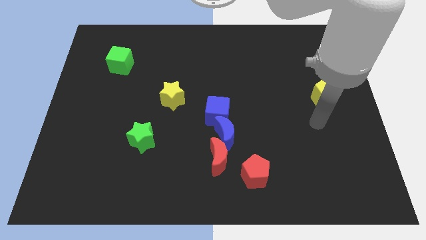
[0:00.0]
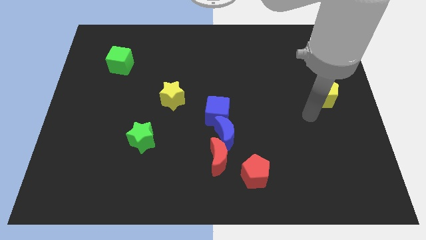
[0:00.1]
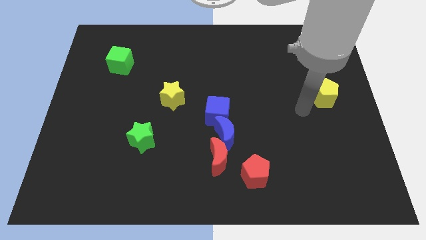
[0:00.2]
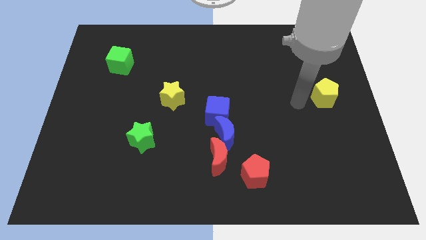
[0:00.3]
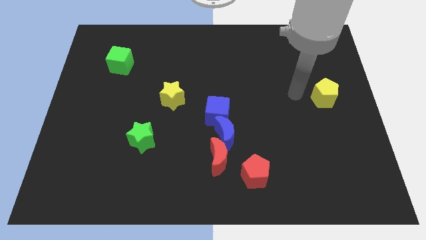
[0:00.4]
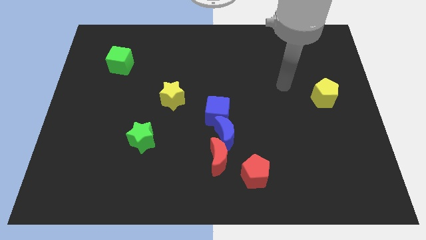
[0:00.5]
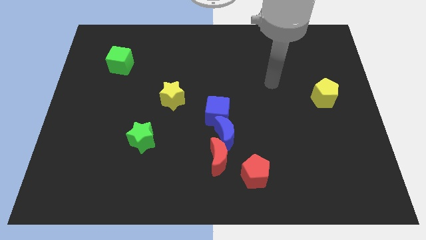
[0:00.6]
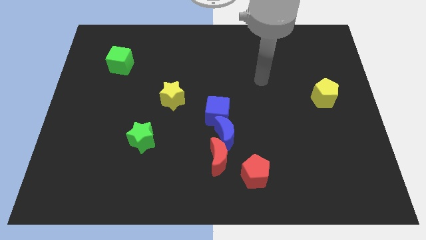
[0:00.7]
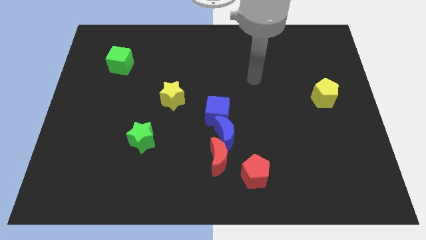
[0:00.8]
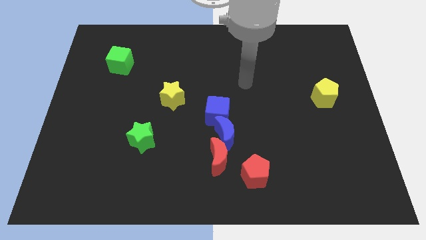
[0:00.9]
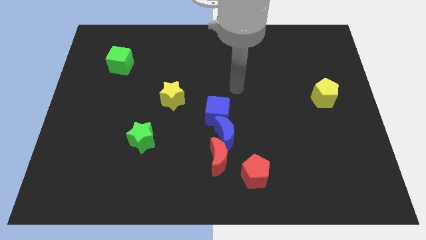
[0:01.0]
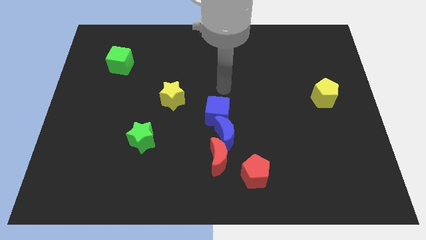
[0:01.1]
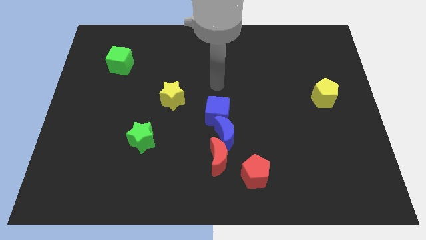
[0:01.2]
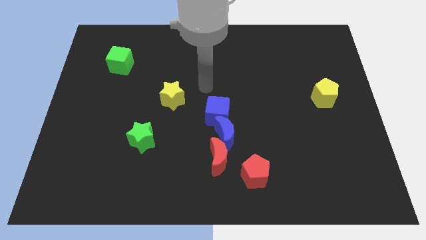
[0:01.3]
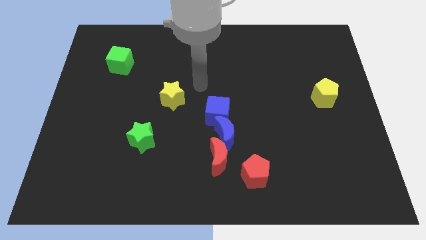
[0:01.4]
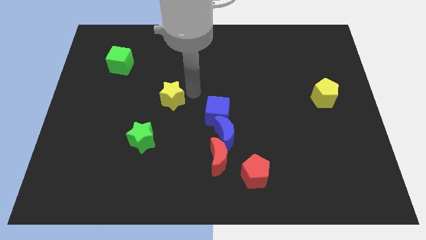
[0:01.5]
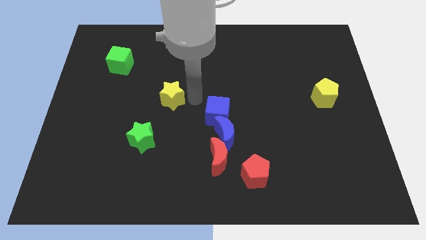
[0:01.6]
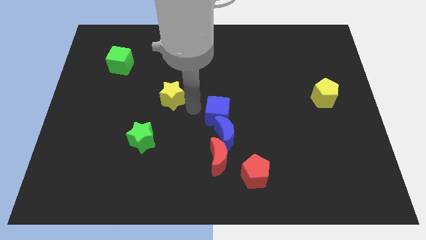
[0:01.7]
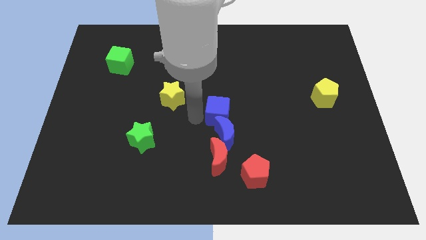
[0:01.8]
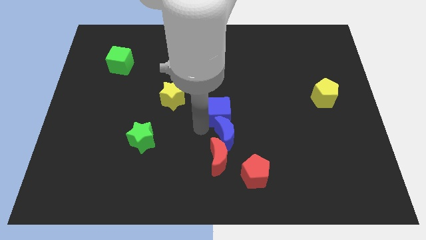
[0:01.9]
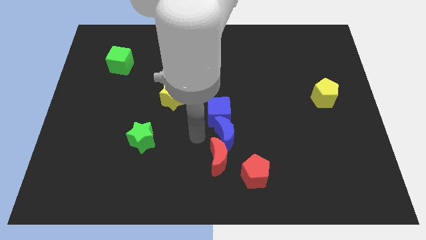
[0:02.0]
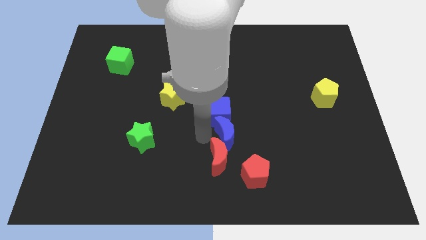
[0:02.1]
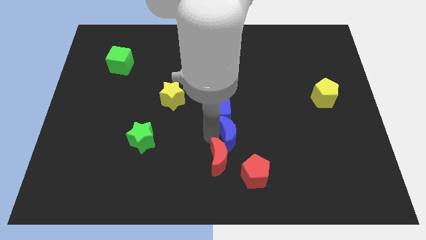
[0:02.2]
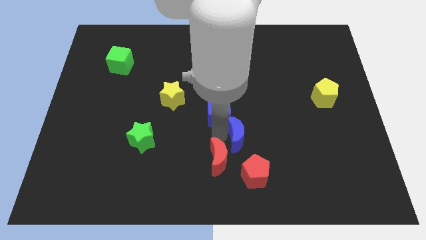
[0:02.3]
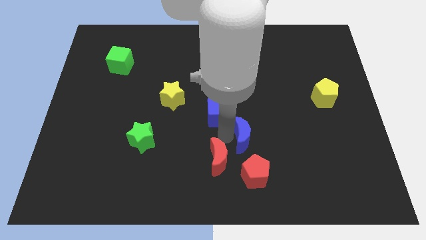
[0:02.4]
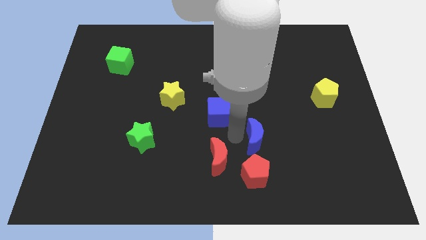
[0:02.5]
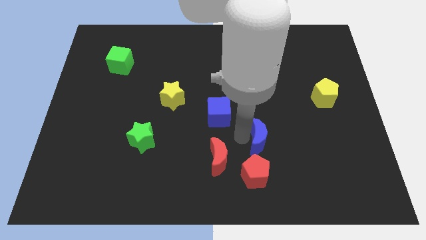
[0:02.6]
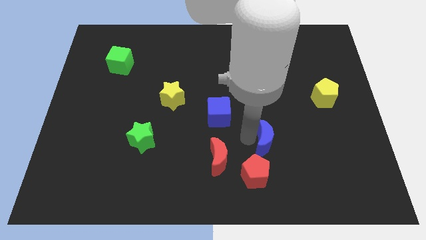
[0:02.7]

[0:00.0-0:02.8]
separate the blue moon from the red moon and blue cube

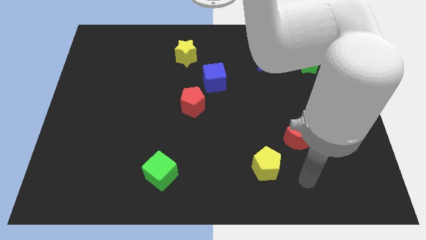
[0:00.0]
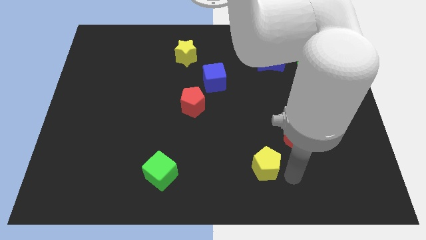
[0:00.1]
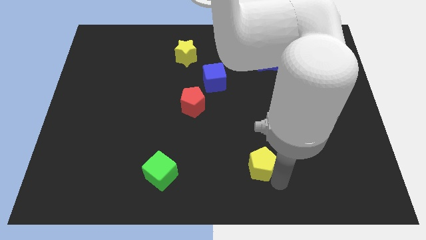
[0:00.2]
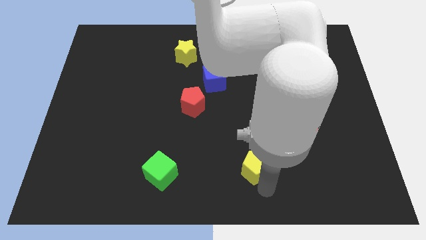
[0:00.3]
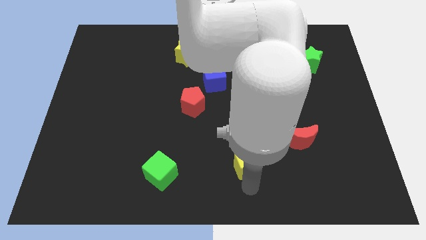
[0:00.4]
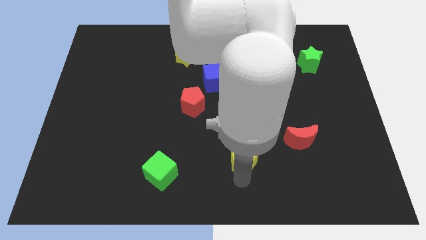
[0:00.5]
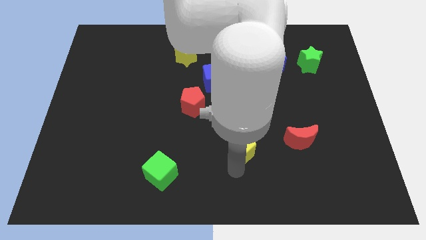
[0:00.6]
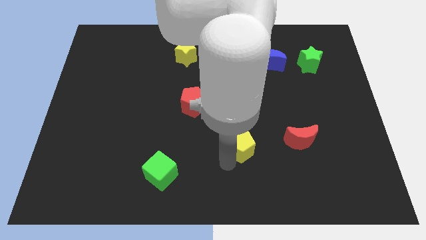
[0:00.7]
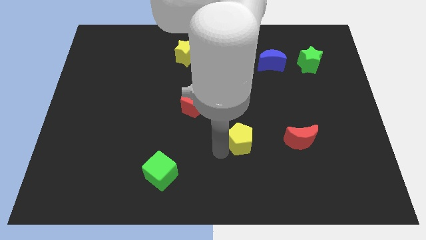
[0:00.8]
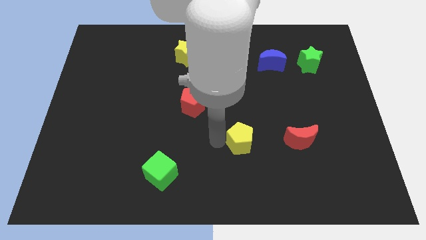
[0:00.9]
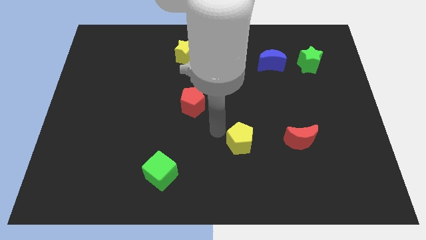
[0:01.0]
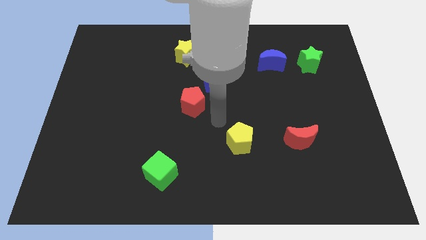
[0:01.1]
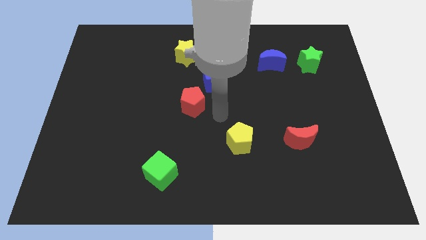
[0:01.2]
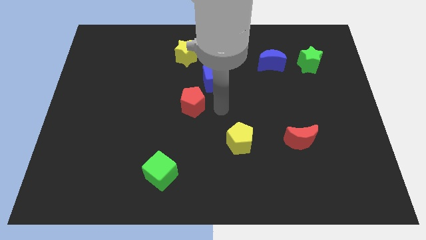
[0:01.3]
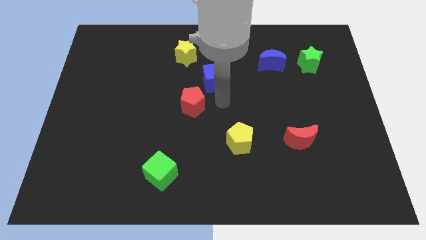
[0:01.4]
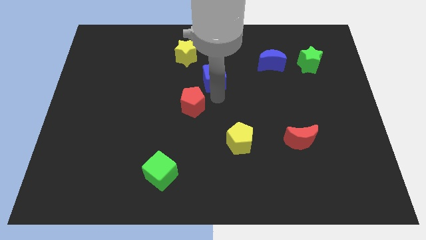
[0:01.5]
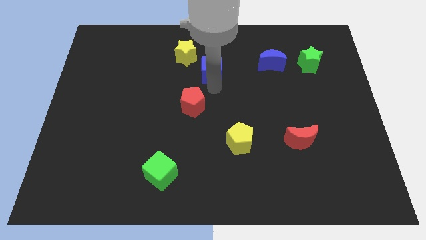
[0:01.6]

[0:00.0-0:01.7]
separate the red pentagon from the blue cube

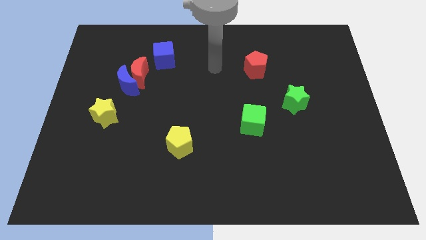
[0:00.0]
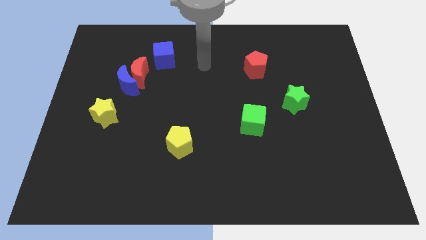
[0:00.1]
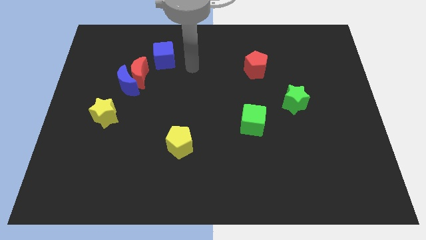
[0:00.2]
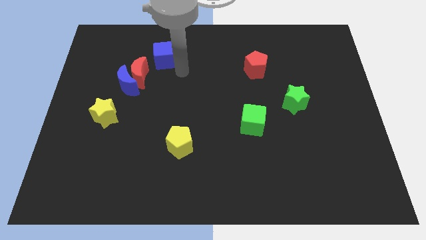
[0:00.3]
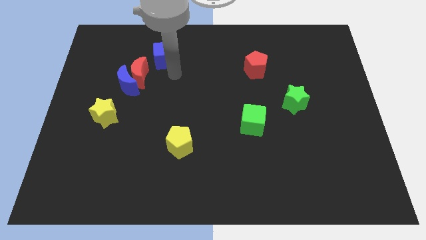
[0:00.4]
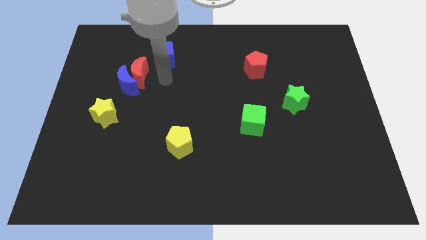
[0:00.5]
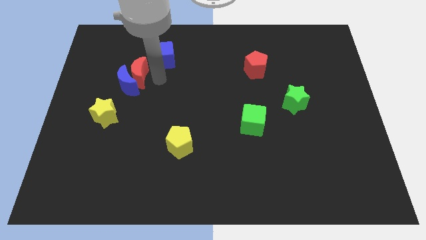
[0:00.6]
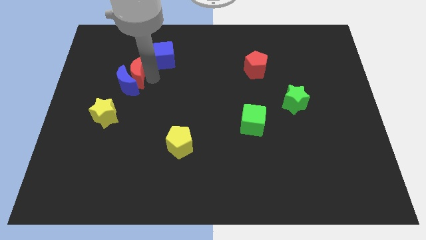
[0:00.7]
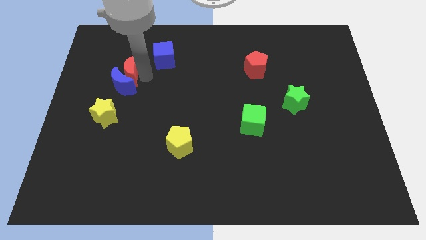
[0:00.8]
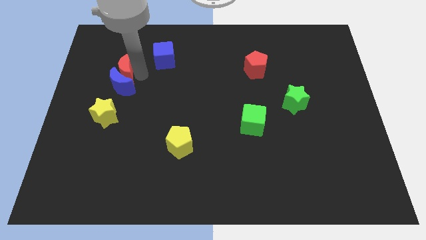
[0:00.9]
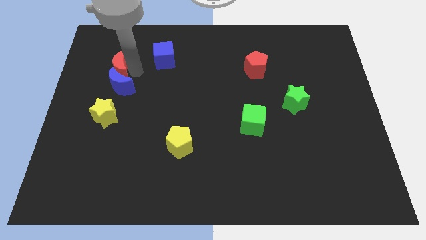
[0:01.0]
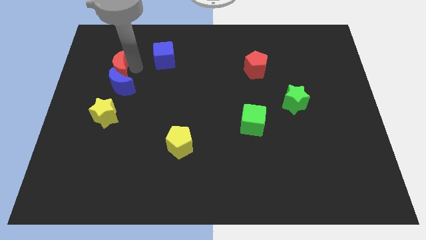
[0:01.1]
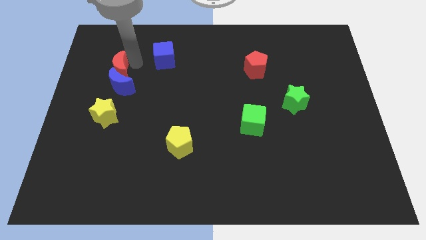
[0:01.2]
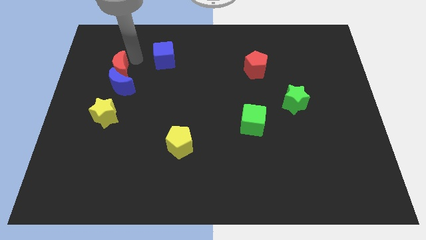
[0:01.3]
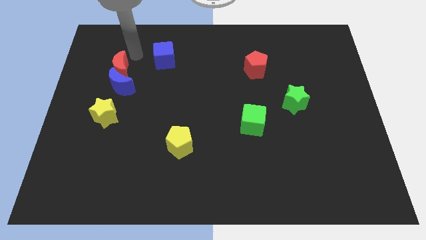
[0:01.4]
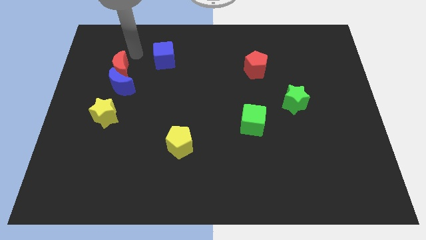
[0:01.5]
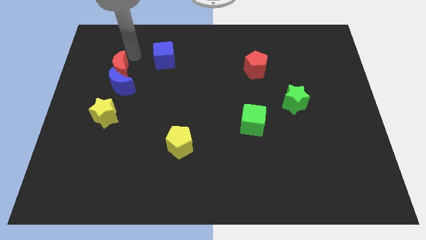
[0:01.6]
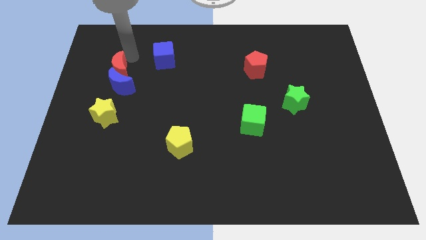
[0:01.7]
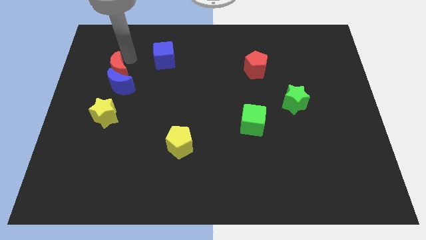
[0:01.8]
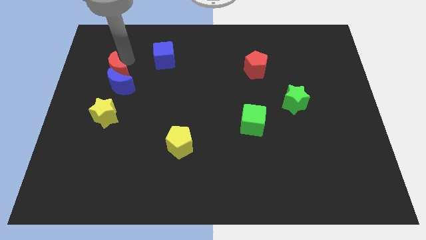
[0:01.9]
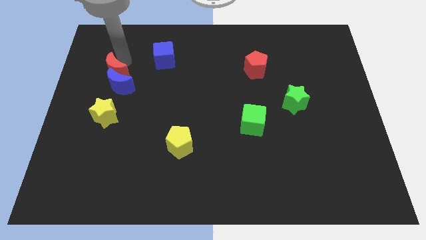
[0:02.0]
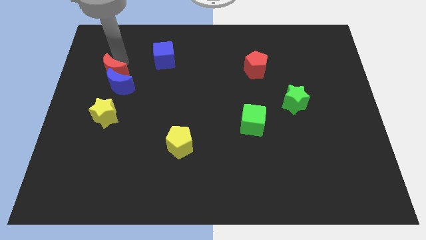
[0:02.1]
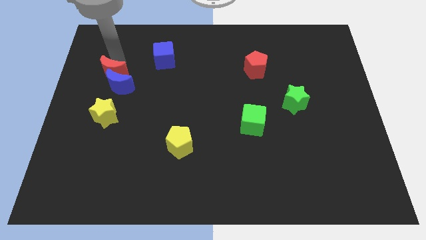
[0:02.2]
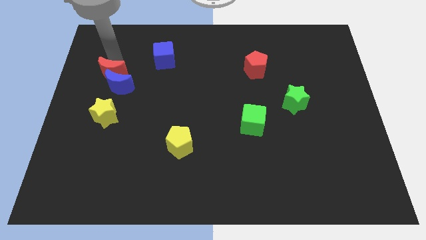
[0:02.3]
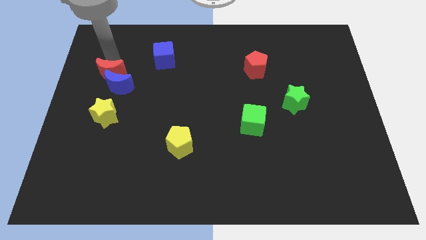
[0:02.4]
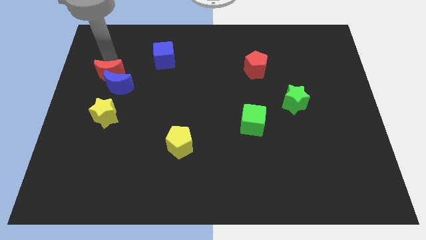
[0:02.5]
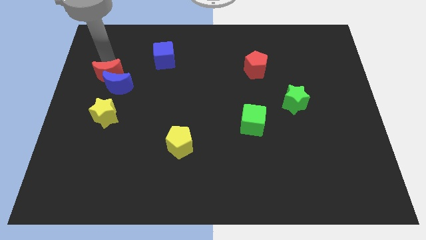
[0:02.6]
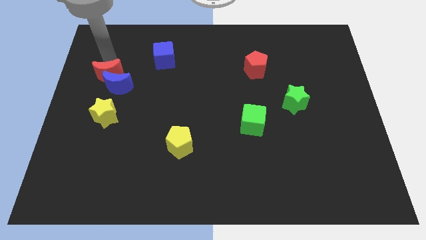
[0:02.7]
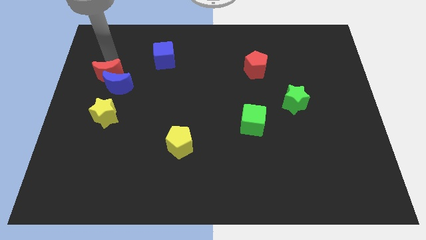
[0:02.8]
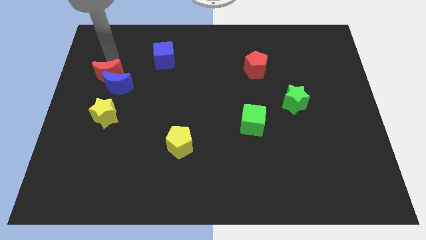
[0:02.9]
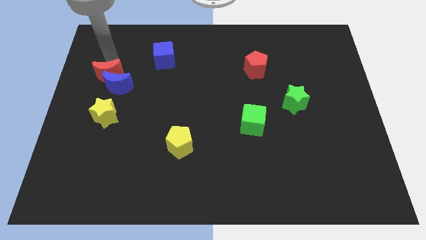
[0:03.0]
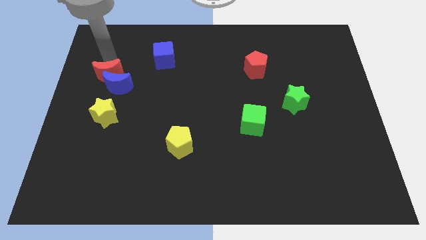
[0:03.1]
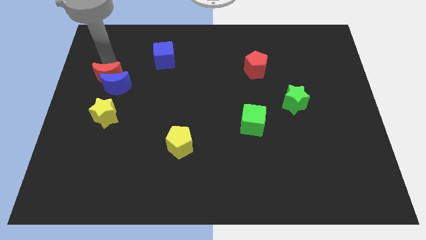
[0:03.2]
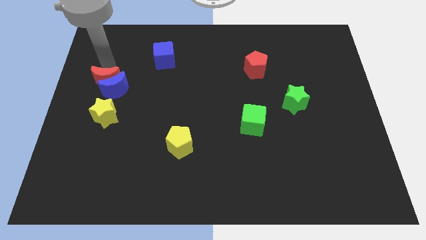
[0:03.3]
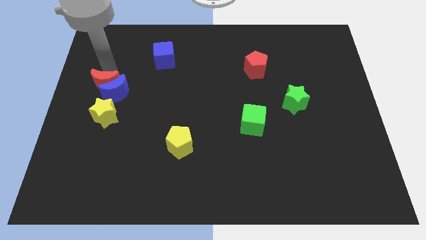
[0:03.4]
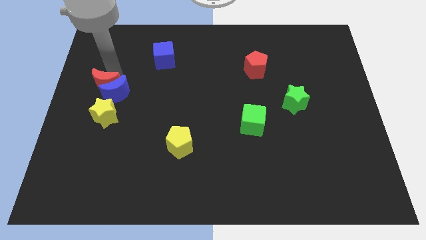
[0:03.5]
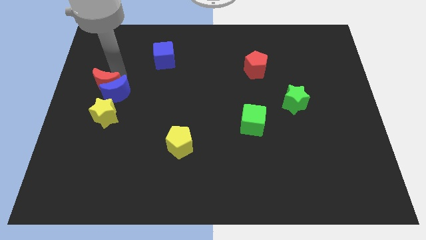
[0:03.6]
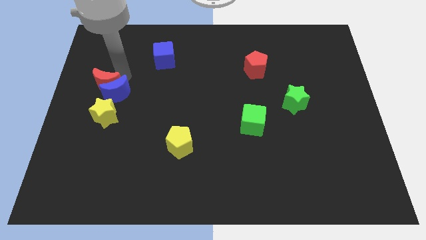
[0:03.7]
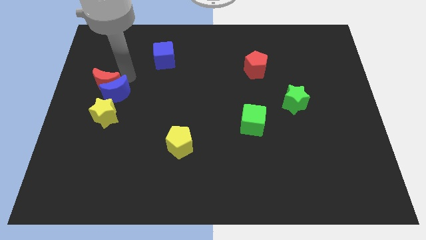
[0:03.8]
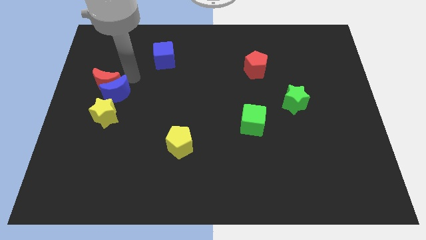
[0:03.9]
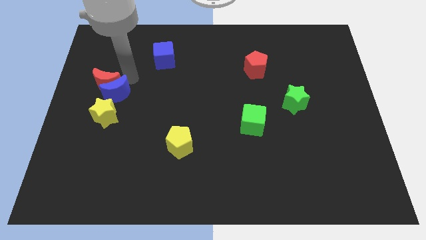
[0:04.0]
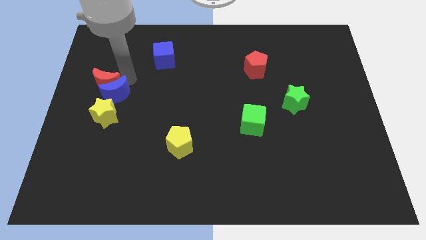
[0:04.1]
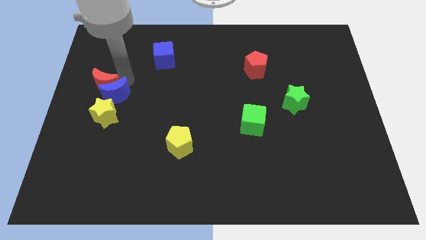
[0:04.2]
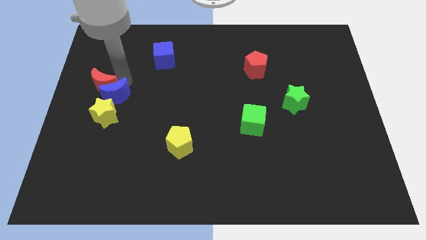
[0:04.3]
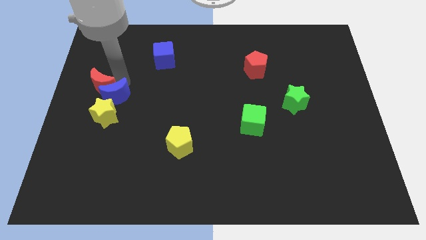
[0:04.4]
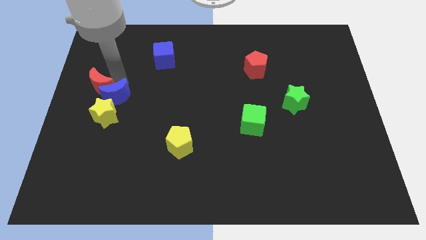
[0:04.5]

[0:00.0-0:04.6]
separate the red moon from the blue moon and blue cube

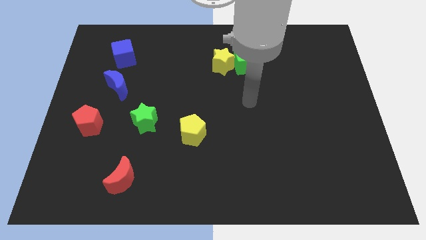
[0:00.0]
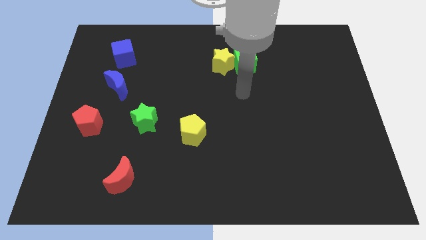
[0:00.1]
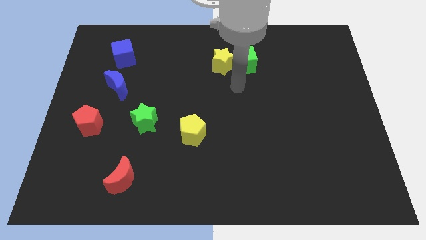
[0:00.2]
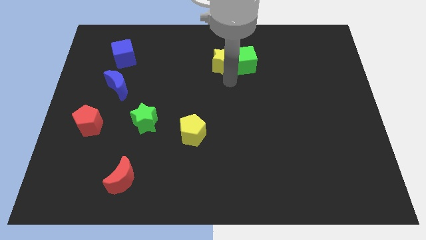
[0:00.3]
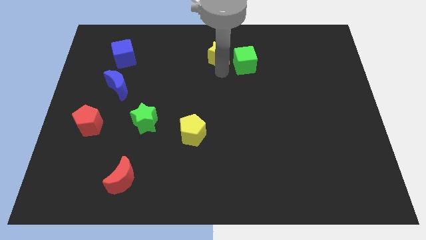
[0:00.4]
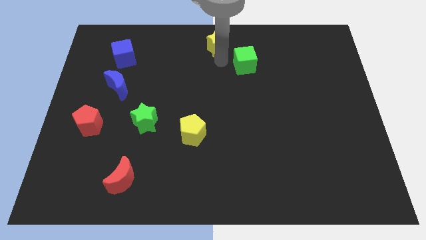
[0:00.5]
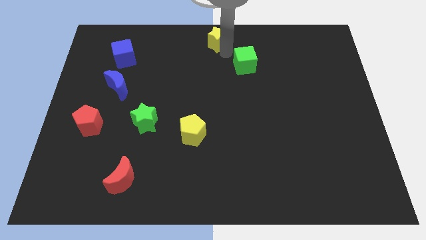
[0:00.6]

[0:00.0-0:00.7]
move the green cube away from the yellow star
